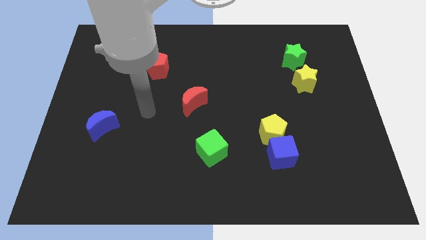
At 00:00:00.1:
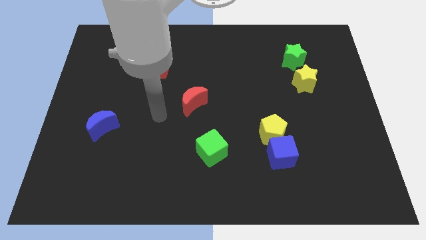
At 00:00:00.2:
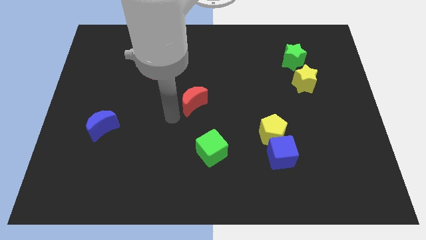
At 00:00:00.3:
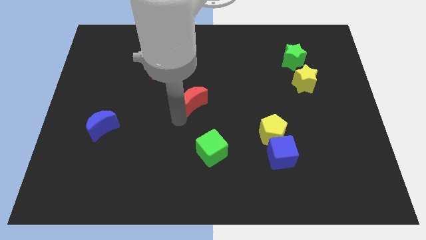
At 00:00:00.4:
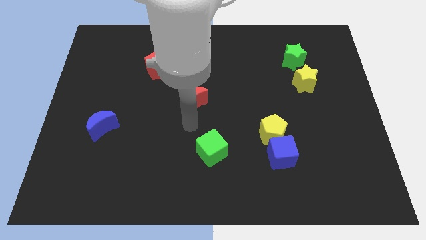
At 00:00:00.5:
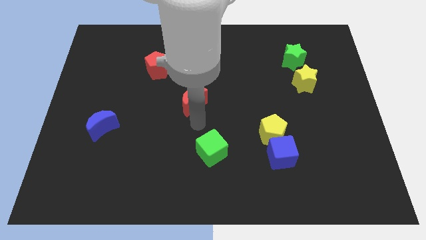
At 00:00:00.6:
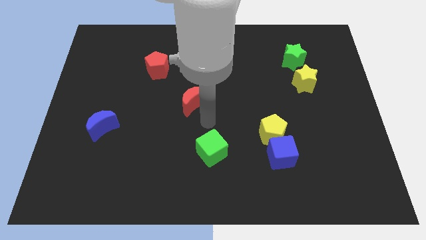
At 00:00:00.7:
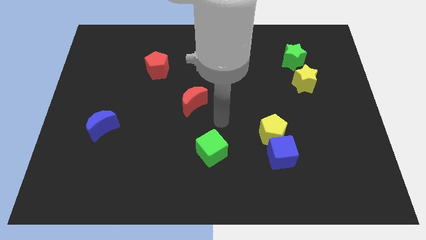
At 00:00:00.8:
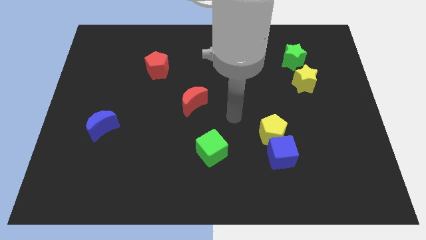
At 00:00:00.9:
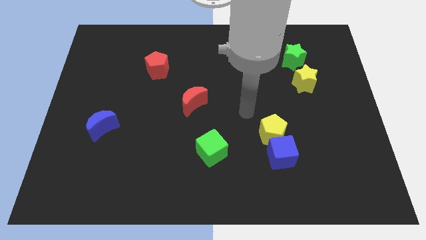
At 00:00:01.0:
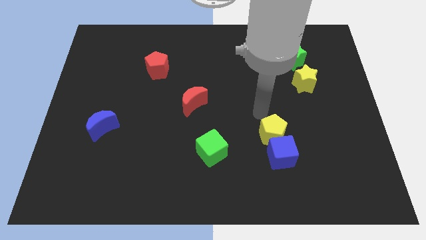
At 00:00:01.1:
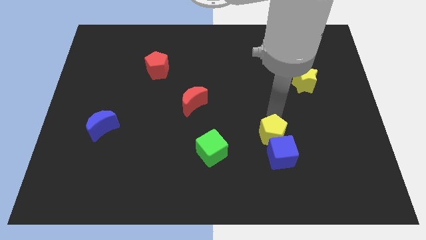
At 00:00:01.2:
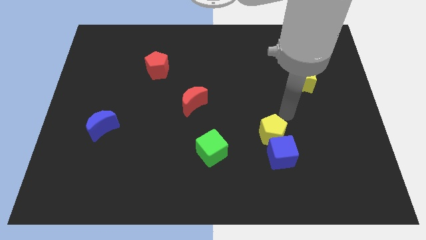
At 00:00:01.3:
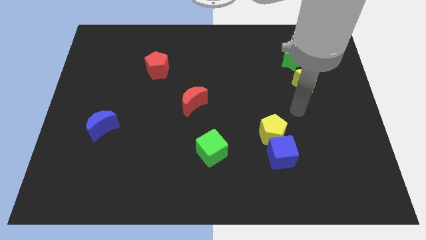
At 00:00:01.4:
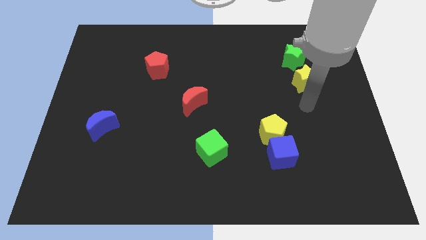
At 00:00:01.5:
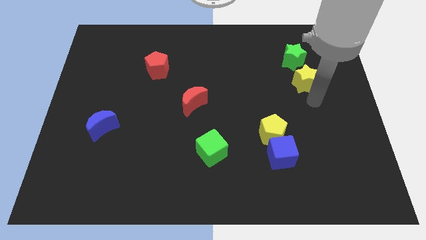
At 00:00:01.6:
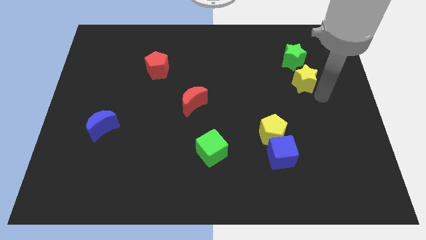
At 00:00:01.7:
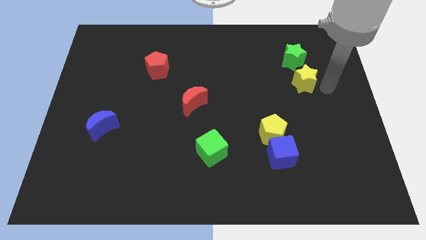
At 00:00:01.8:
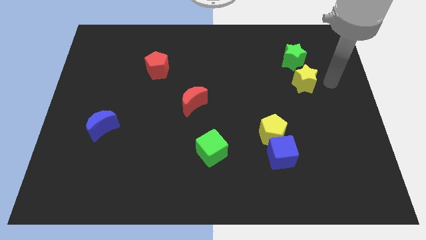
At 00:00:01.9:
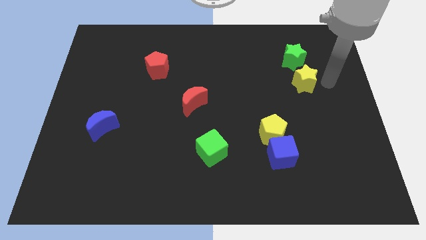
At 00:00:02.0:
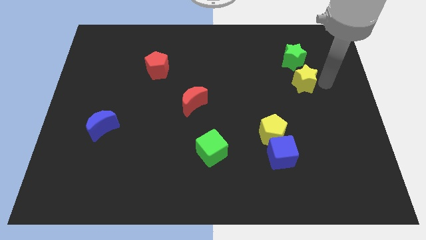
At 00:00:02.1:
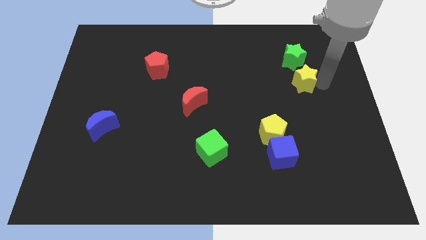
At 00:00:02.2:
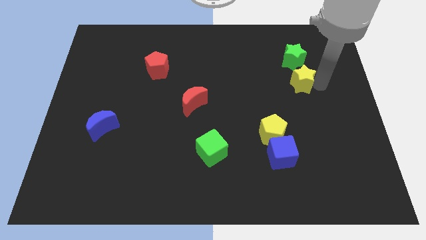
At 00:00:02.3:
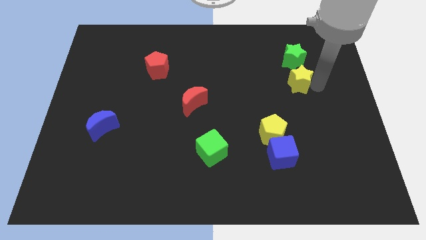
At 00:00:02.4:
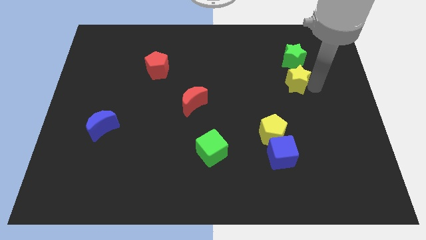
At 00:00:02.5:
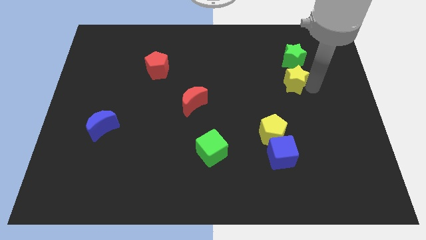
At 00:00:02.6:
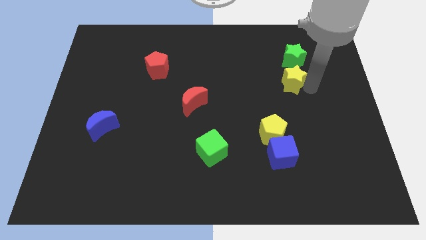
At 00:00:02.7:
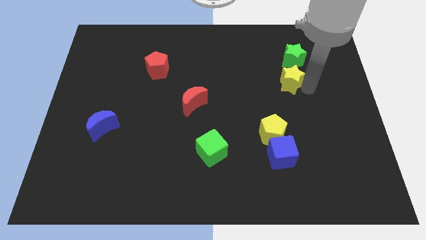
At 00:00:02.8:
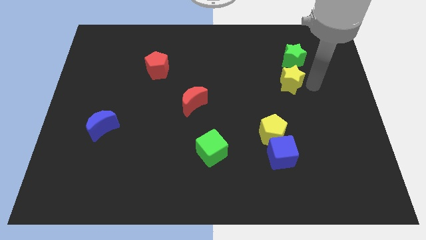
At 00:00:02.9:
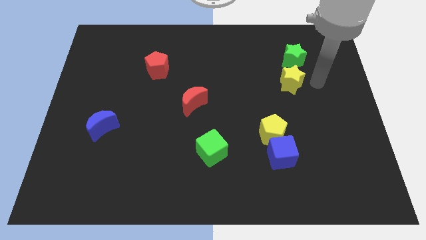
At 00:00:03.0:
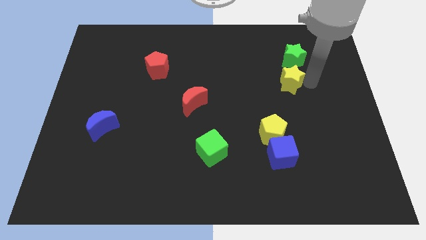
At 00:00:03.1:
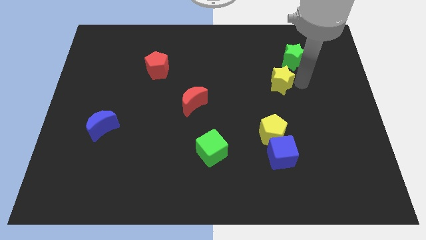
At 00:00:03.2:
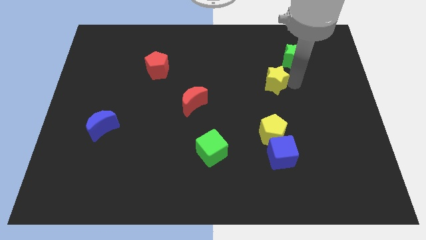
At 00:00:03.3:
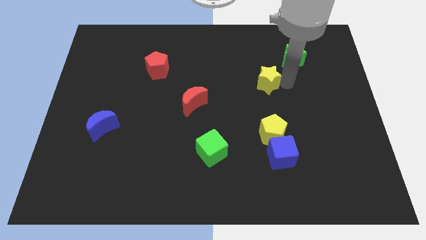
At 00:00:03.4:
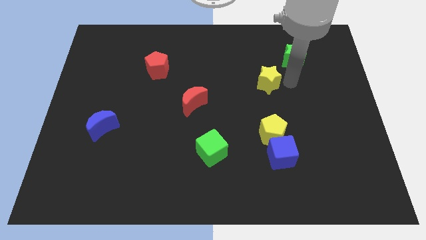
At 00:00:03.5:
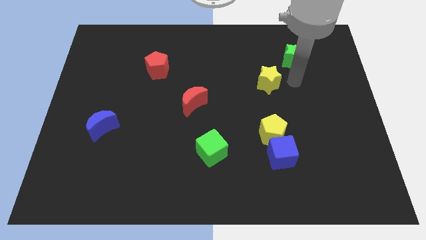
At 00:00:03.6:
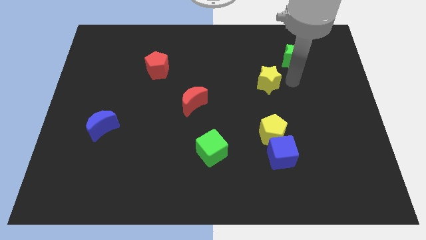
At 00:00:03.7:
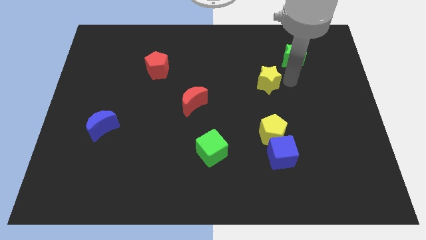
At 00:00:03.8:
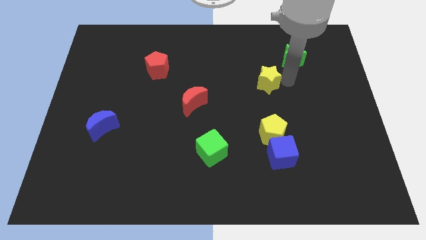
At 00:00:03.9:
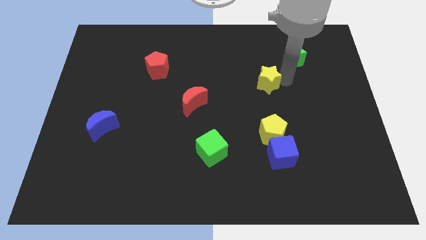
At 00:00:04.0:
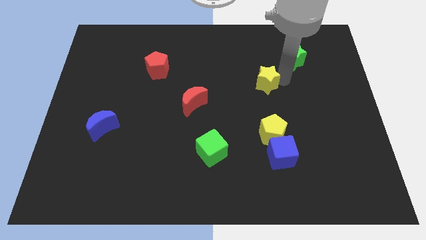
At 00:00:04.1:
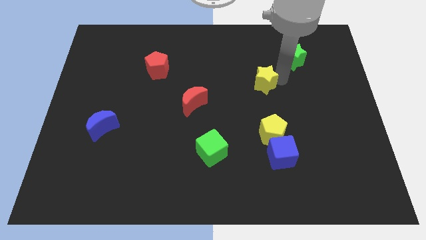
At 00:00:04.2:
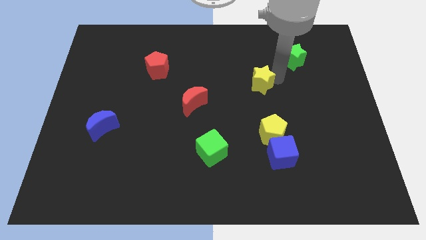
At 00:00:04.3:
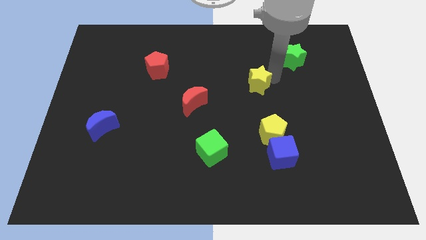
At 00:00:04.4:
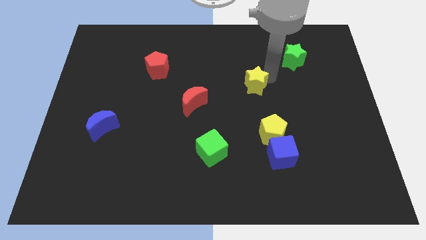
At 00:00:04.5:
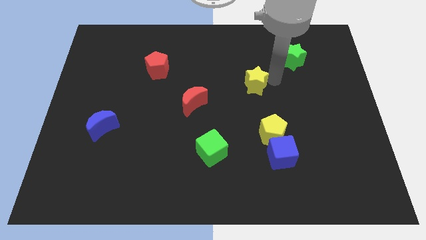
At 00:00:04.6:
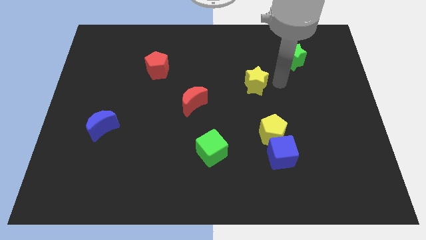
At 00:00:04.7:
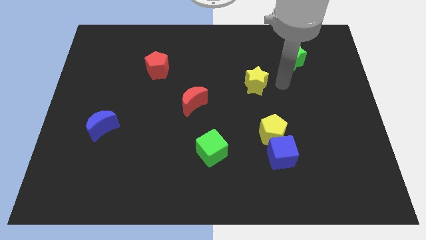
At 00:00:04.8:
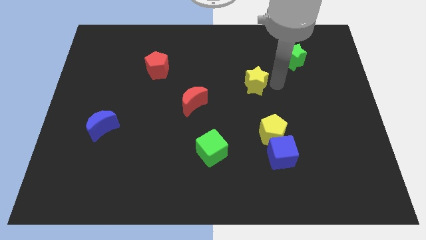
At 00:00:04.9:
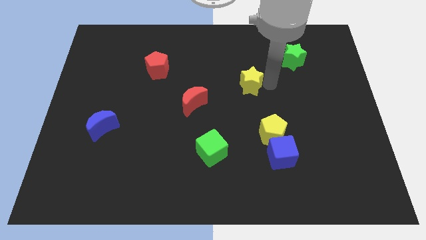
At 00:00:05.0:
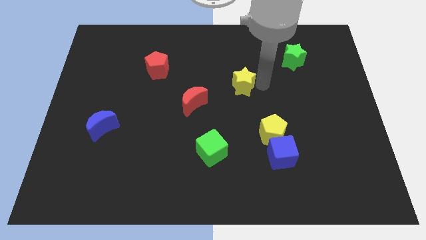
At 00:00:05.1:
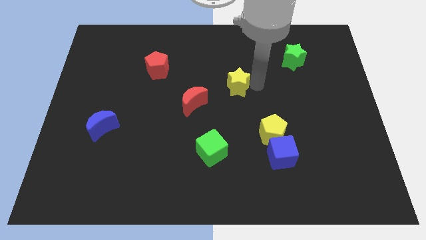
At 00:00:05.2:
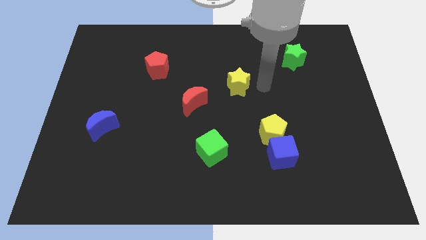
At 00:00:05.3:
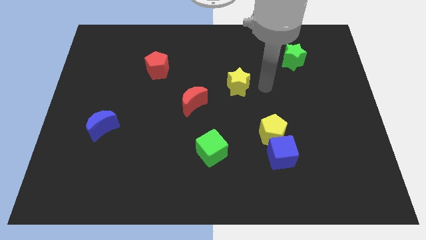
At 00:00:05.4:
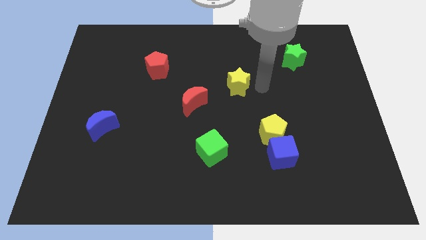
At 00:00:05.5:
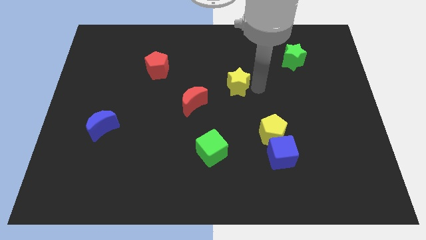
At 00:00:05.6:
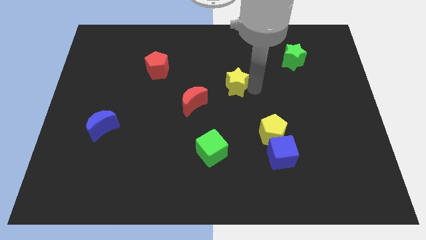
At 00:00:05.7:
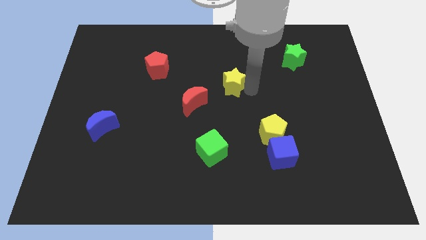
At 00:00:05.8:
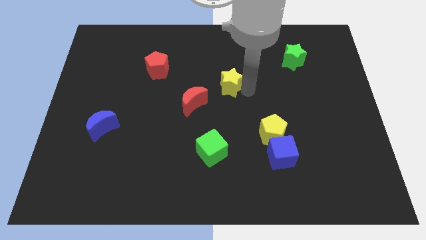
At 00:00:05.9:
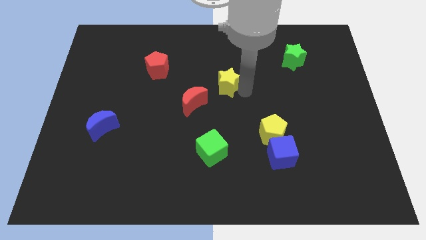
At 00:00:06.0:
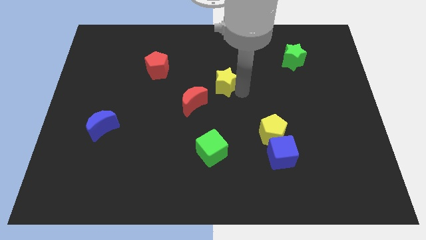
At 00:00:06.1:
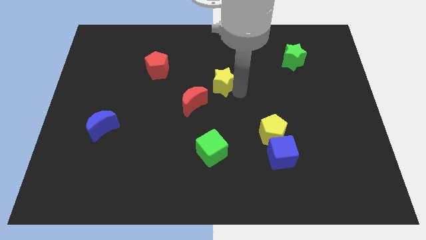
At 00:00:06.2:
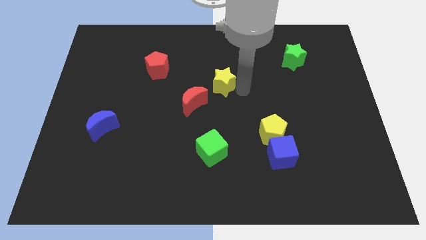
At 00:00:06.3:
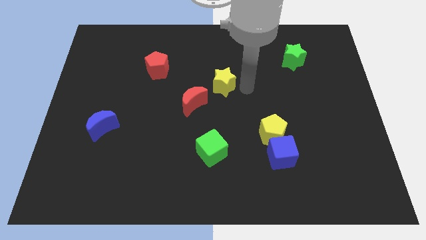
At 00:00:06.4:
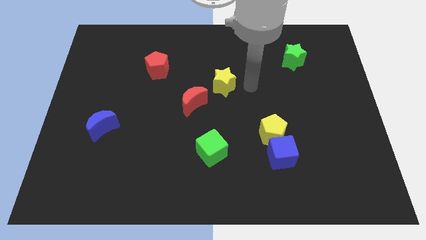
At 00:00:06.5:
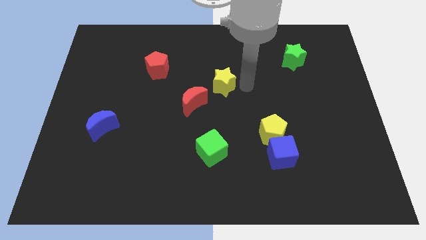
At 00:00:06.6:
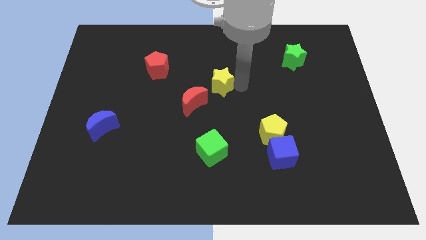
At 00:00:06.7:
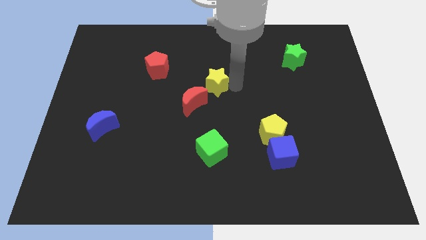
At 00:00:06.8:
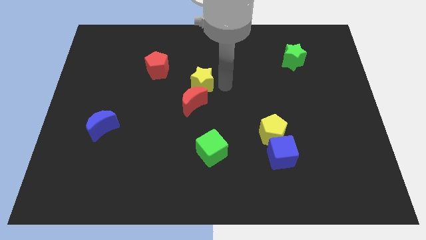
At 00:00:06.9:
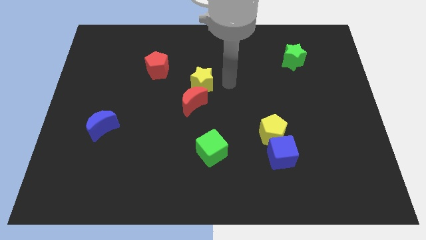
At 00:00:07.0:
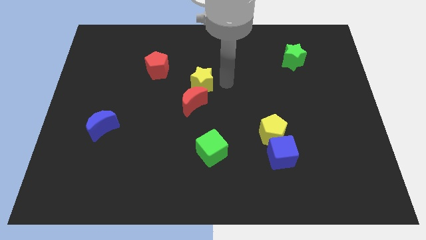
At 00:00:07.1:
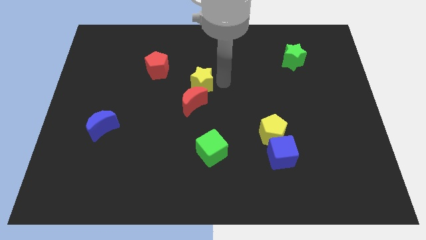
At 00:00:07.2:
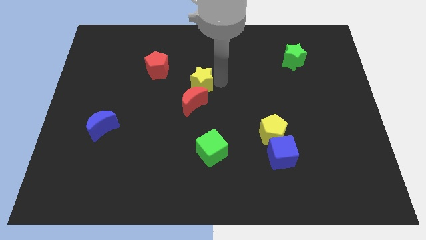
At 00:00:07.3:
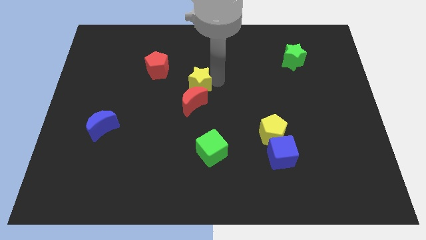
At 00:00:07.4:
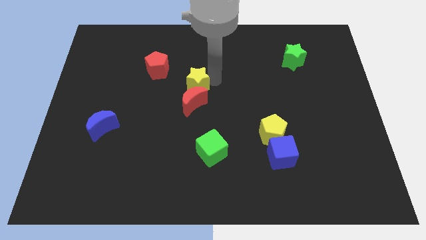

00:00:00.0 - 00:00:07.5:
put the yellow star to the top left side of the red moon
